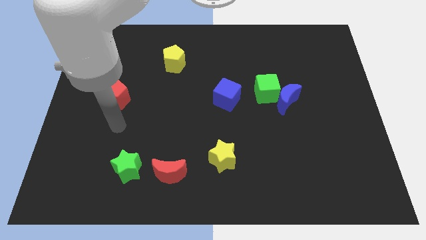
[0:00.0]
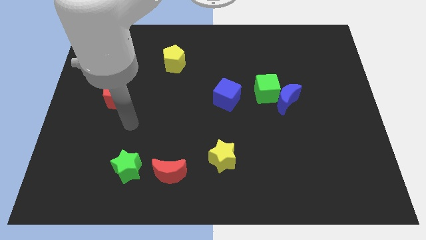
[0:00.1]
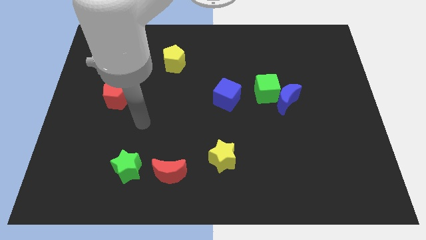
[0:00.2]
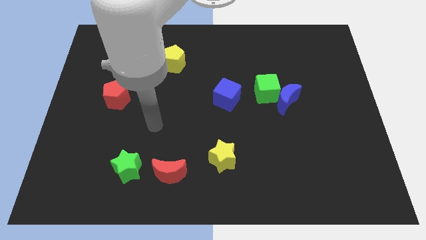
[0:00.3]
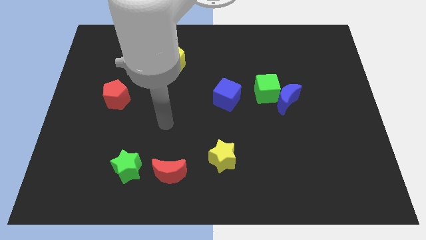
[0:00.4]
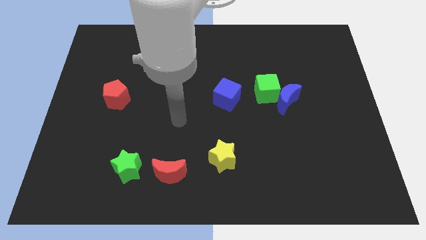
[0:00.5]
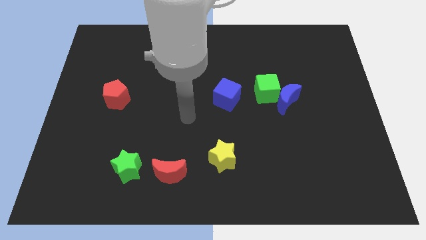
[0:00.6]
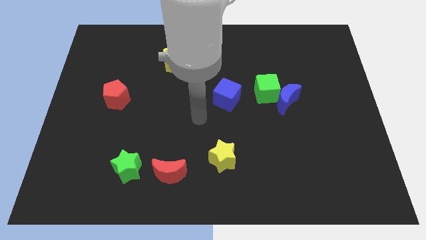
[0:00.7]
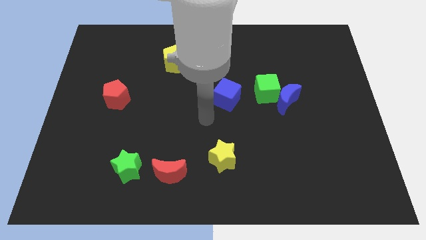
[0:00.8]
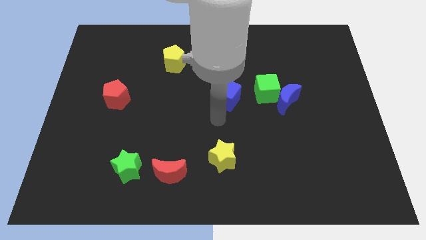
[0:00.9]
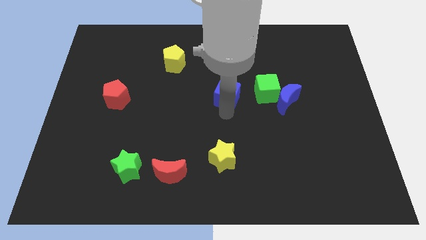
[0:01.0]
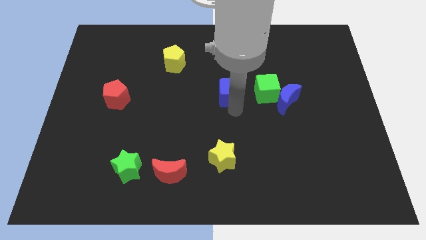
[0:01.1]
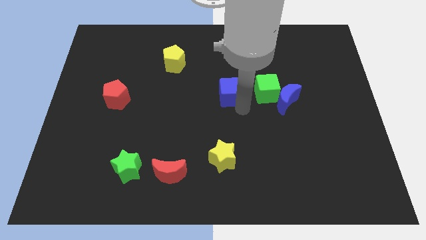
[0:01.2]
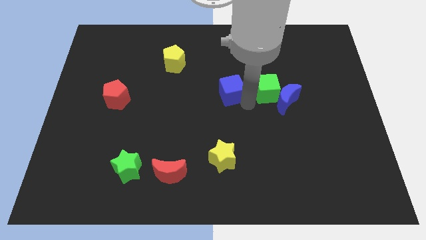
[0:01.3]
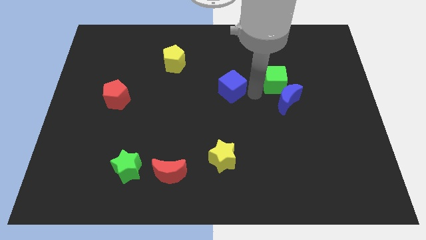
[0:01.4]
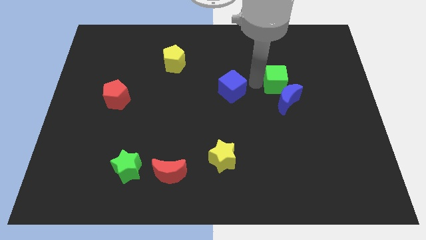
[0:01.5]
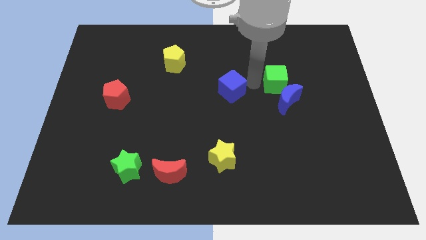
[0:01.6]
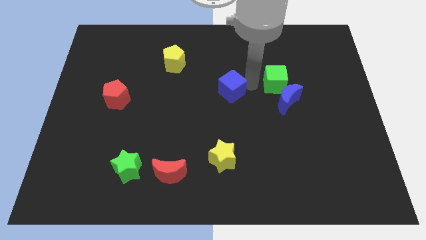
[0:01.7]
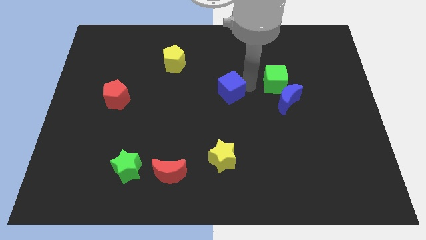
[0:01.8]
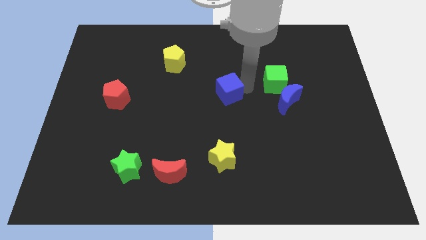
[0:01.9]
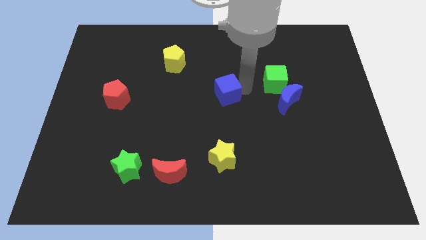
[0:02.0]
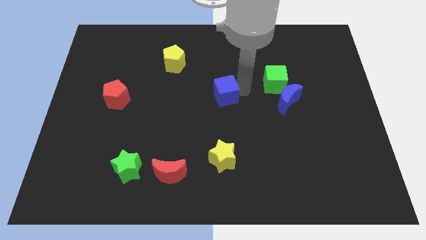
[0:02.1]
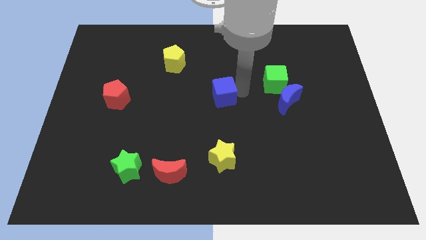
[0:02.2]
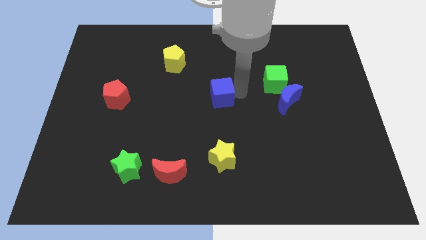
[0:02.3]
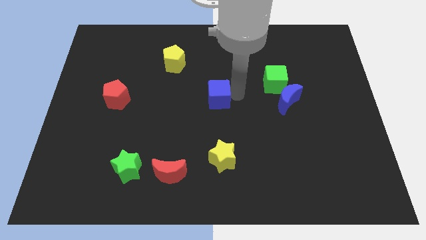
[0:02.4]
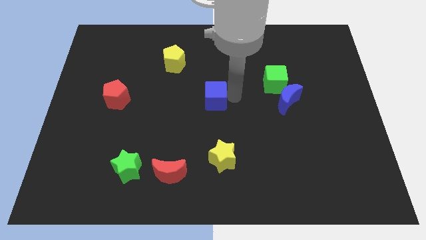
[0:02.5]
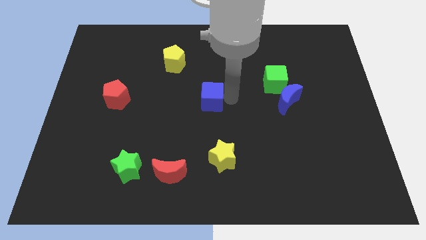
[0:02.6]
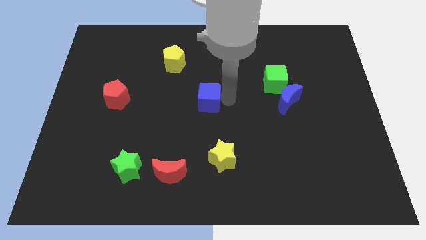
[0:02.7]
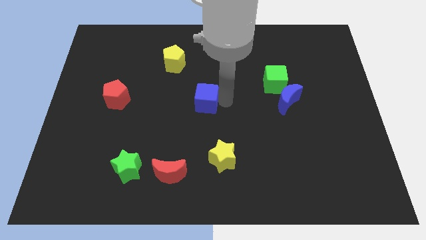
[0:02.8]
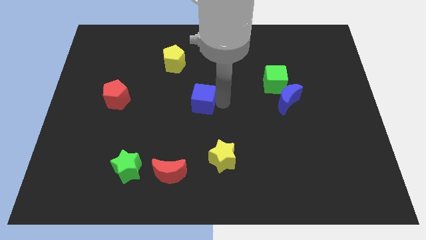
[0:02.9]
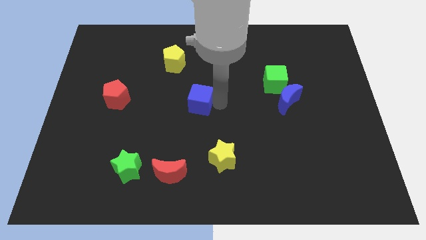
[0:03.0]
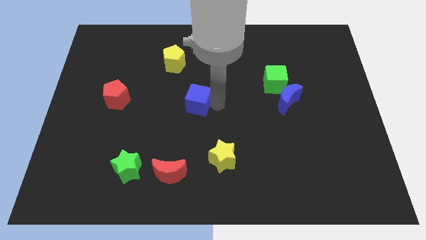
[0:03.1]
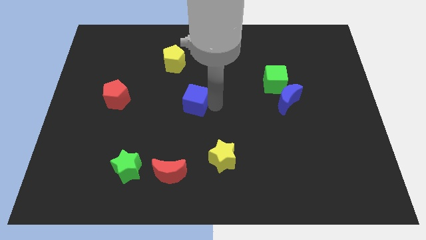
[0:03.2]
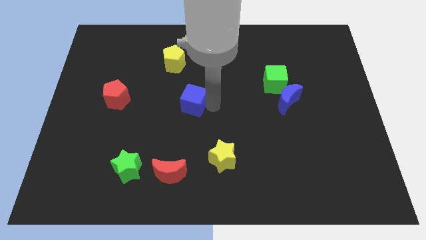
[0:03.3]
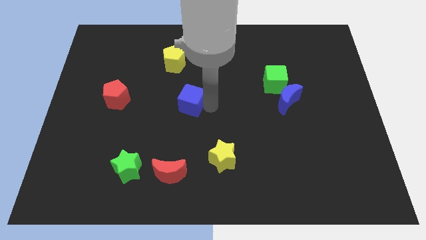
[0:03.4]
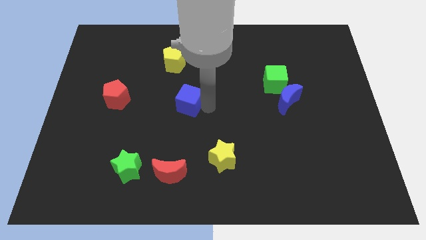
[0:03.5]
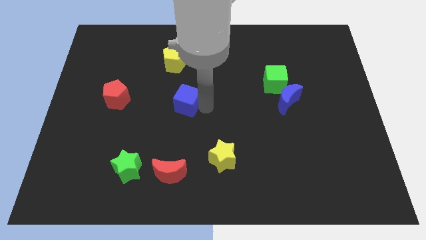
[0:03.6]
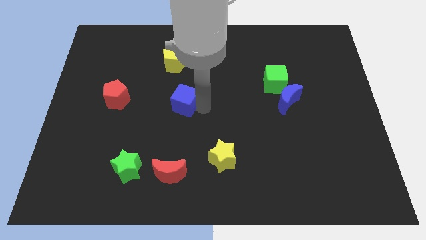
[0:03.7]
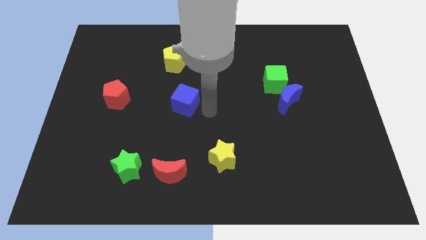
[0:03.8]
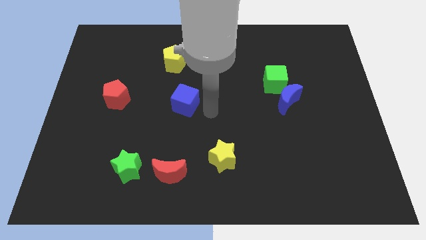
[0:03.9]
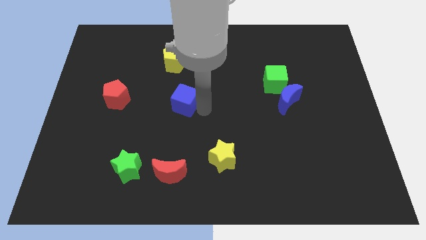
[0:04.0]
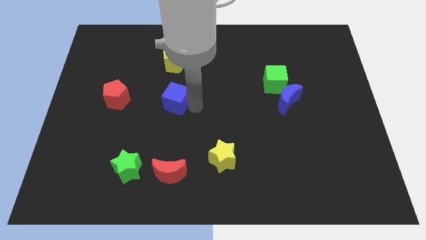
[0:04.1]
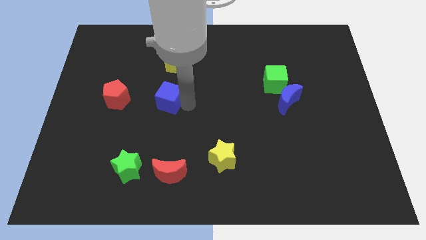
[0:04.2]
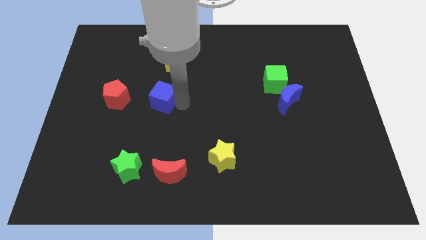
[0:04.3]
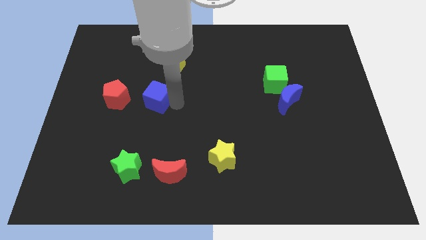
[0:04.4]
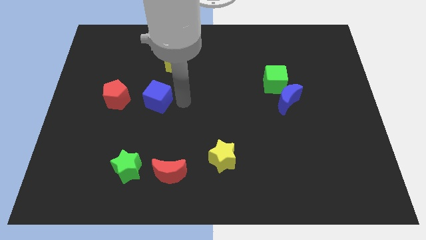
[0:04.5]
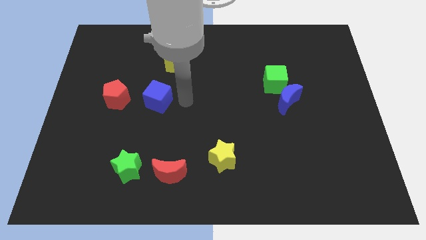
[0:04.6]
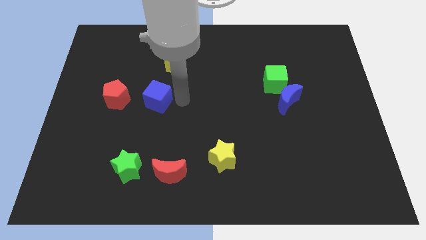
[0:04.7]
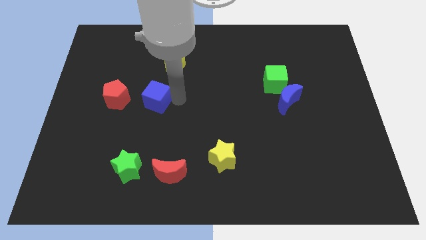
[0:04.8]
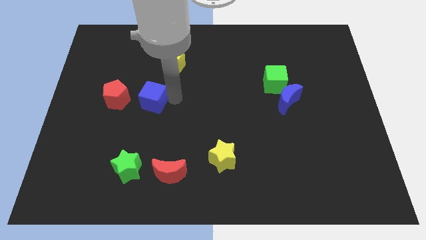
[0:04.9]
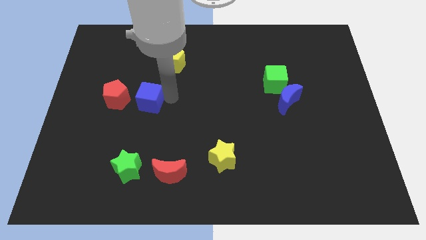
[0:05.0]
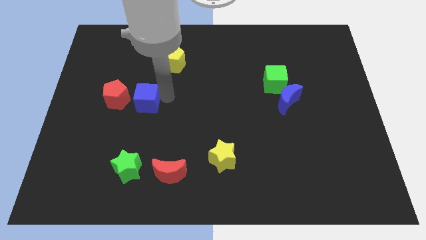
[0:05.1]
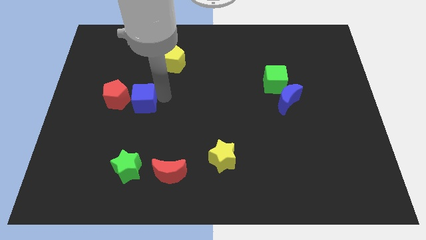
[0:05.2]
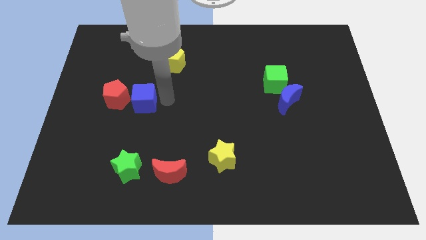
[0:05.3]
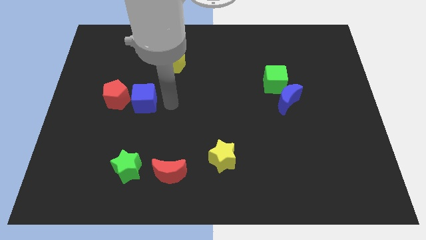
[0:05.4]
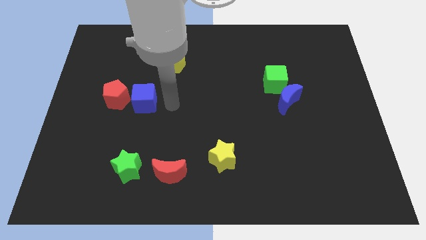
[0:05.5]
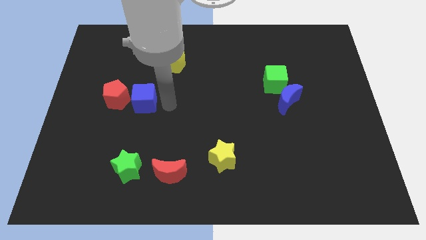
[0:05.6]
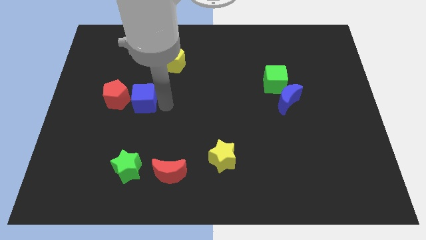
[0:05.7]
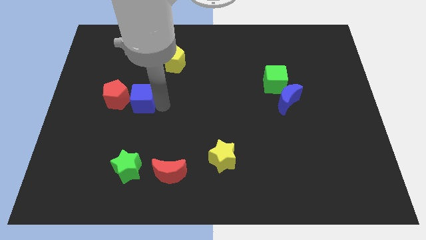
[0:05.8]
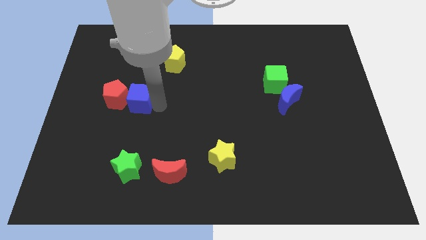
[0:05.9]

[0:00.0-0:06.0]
slide the blue cube close to the red pentagon

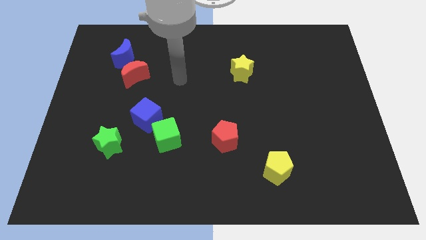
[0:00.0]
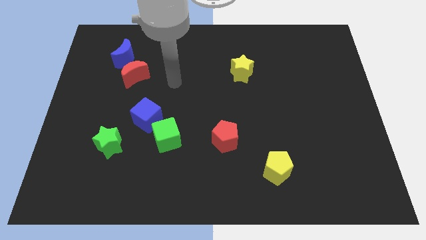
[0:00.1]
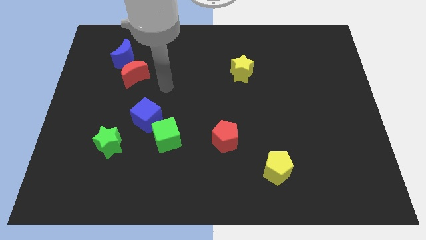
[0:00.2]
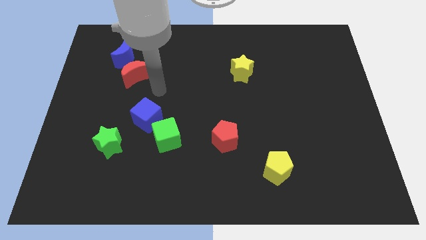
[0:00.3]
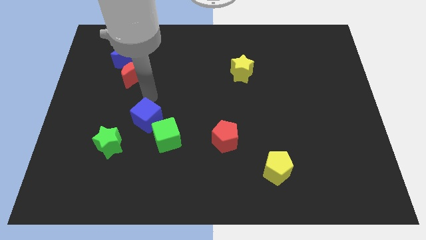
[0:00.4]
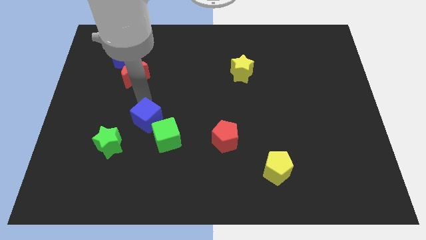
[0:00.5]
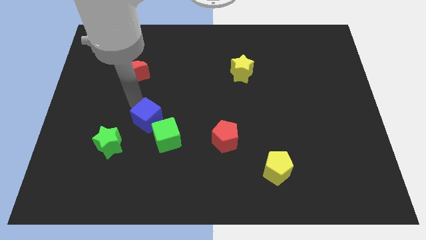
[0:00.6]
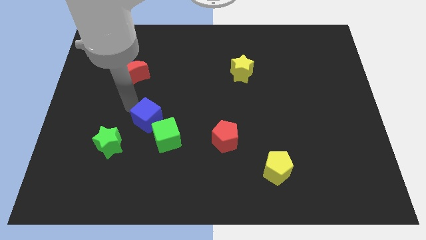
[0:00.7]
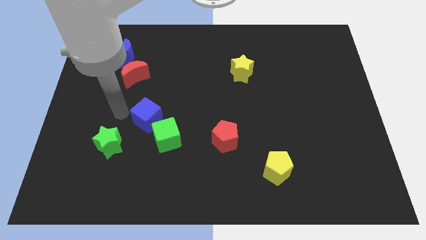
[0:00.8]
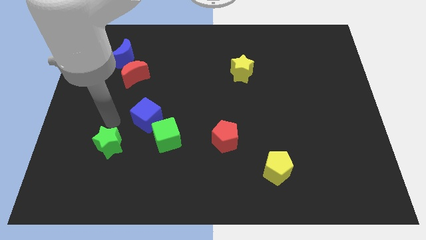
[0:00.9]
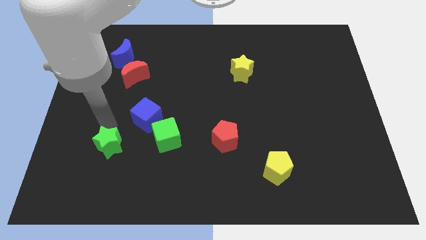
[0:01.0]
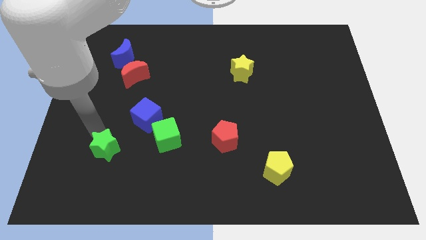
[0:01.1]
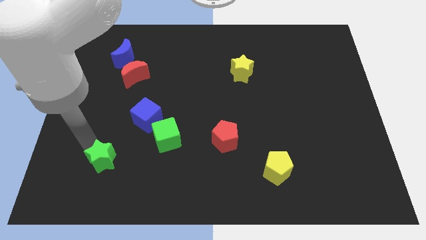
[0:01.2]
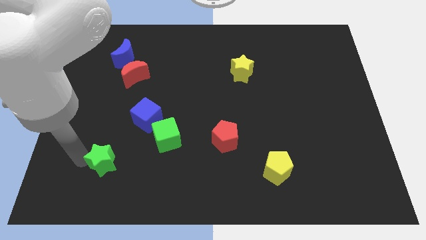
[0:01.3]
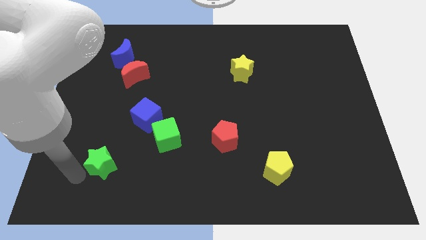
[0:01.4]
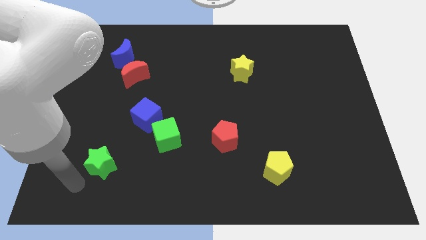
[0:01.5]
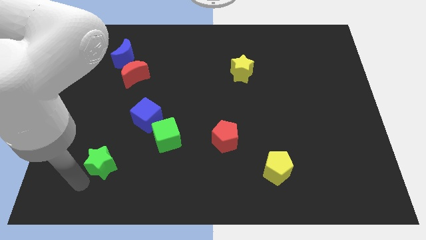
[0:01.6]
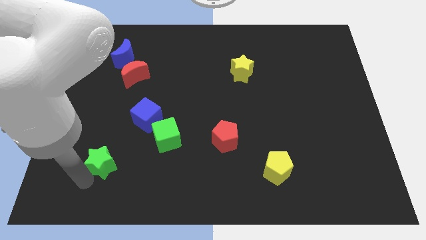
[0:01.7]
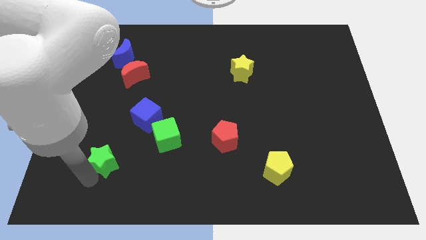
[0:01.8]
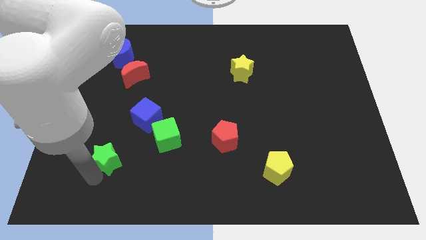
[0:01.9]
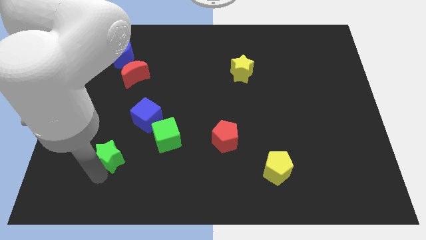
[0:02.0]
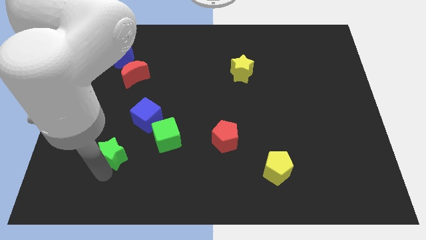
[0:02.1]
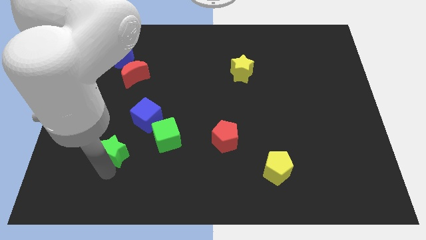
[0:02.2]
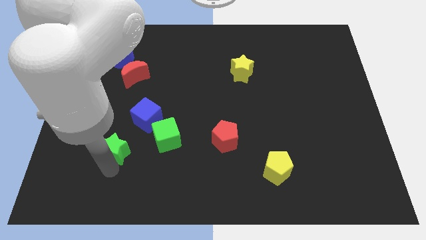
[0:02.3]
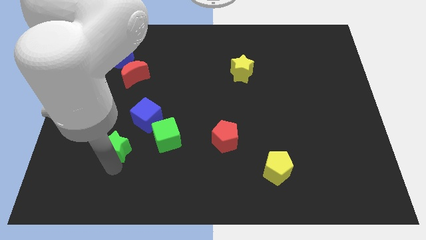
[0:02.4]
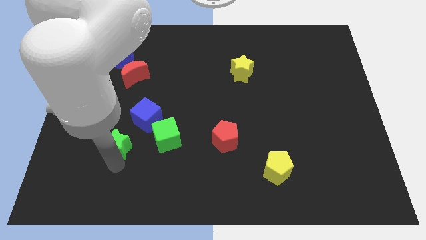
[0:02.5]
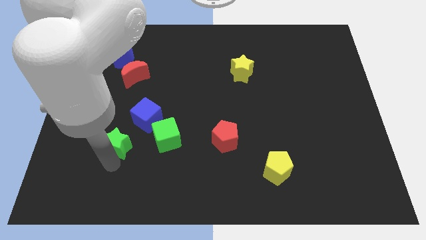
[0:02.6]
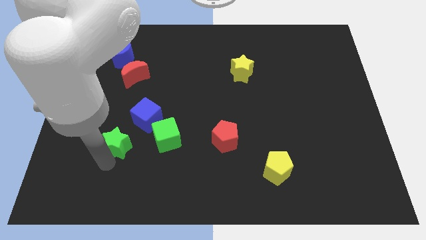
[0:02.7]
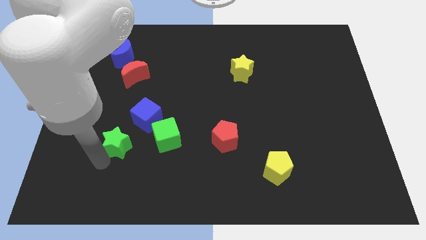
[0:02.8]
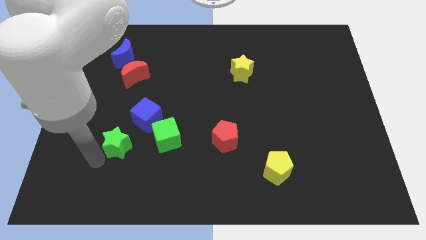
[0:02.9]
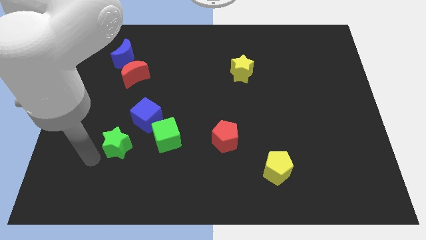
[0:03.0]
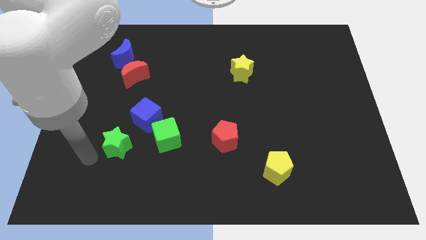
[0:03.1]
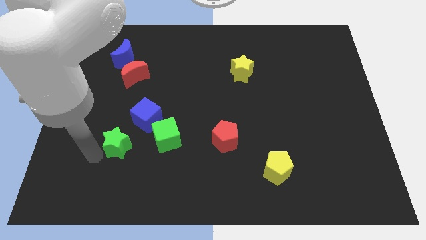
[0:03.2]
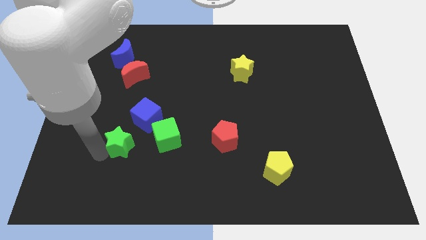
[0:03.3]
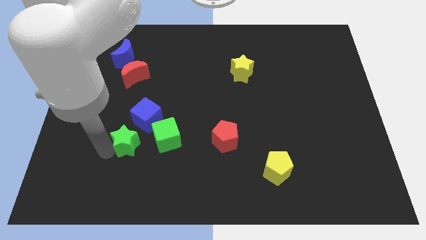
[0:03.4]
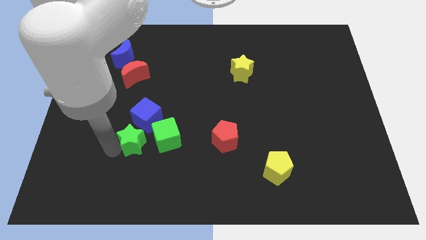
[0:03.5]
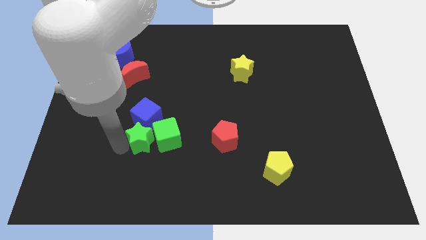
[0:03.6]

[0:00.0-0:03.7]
push the green star to the green cube
